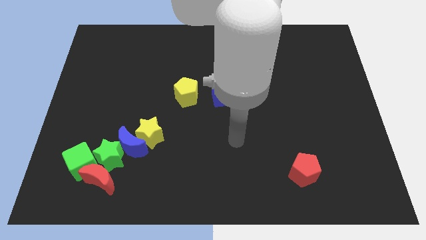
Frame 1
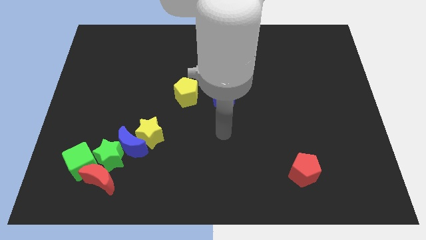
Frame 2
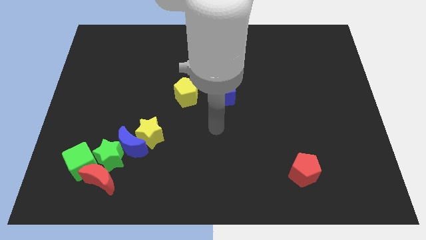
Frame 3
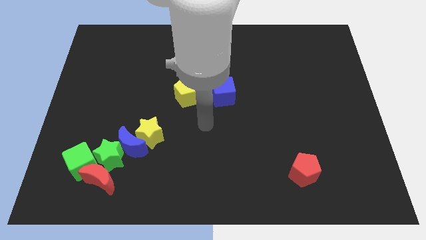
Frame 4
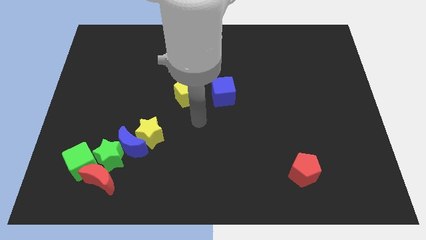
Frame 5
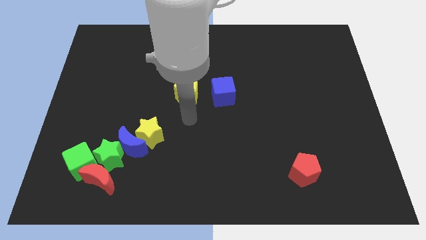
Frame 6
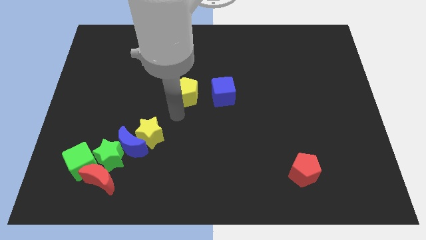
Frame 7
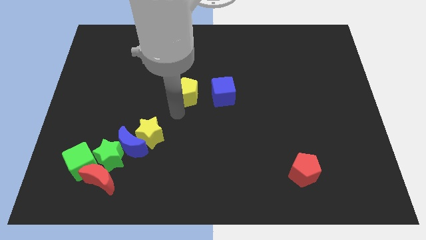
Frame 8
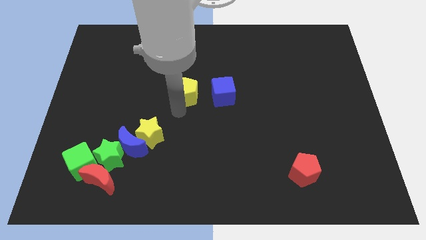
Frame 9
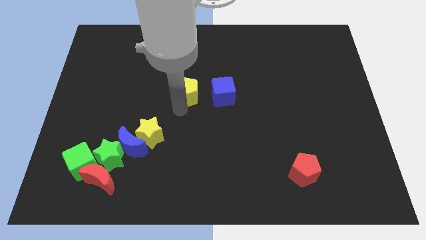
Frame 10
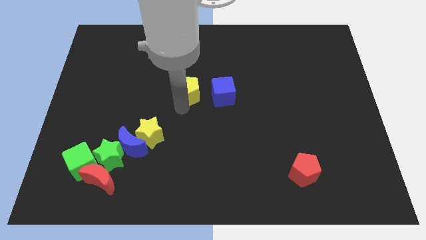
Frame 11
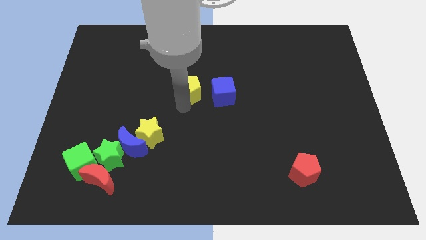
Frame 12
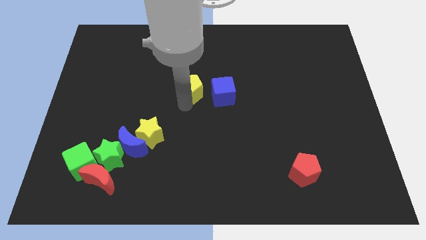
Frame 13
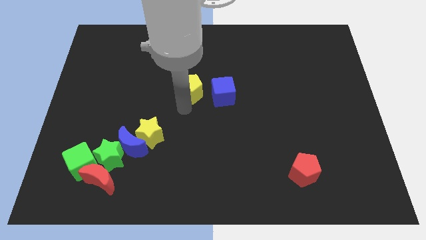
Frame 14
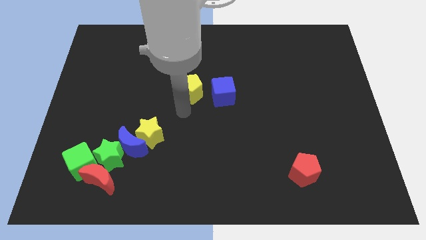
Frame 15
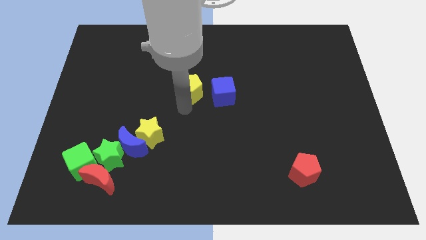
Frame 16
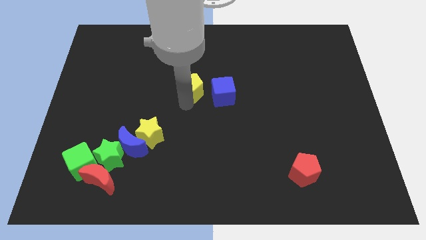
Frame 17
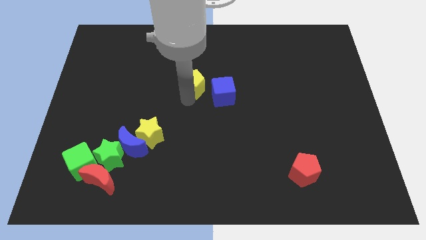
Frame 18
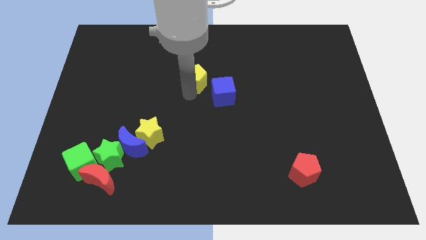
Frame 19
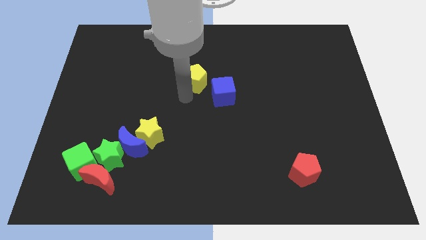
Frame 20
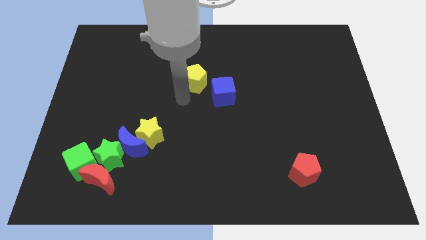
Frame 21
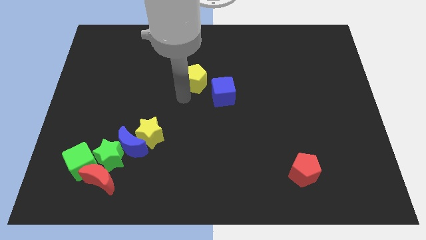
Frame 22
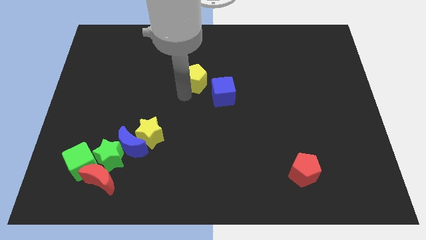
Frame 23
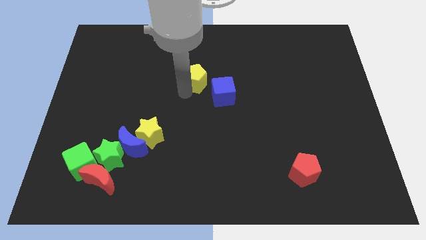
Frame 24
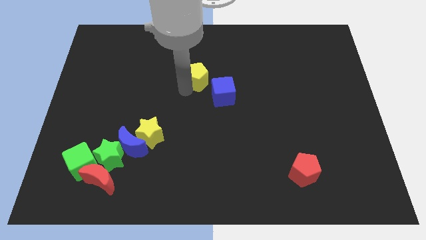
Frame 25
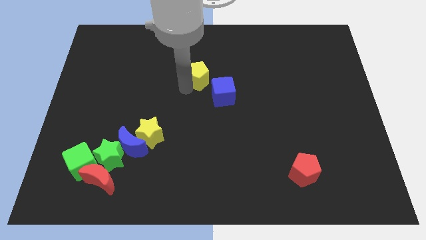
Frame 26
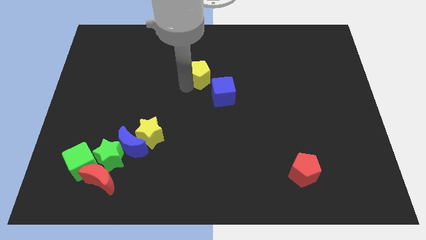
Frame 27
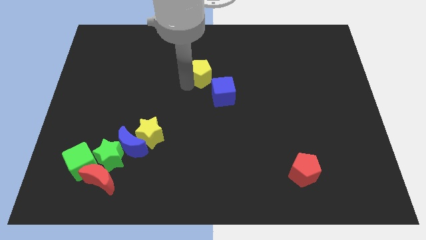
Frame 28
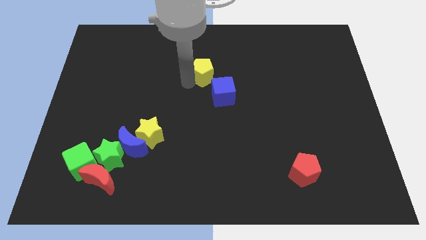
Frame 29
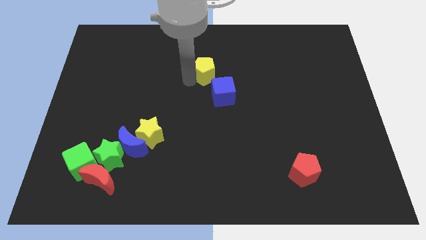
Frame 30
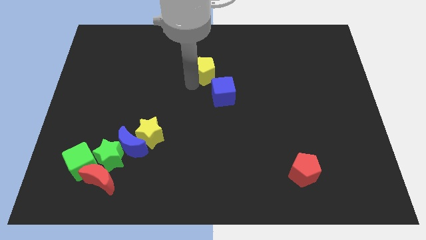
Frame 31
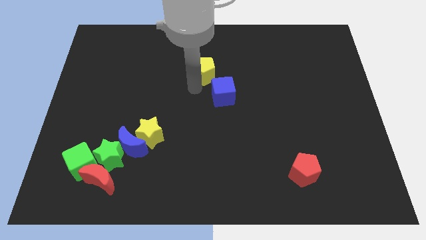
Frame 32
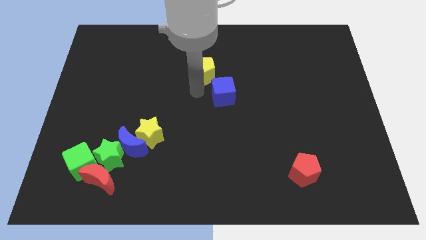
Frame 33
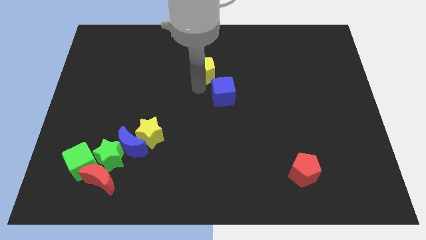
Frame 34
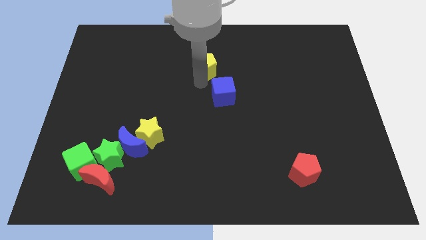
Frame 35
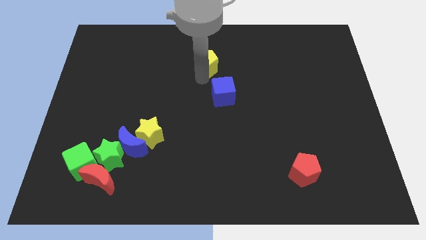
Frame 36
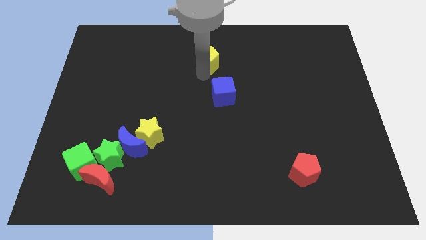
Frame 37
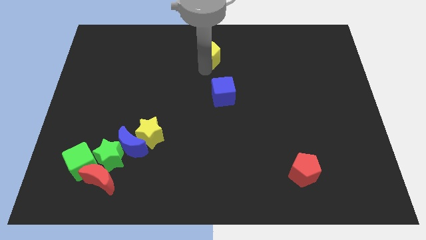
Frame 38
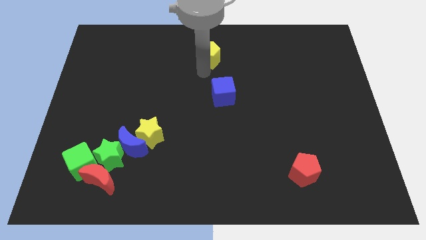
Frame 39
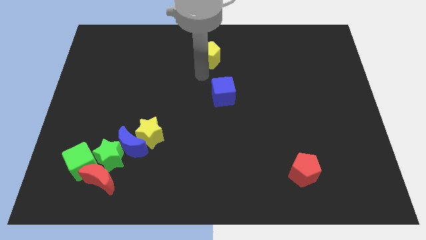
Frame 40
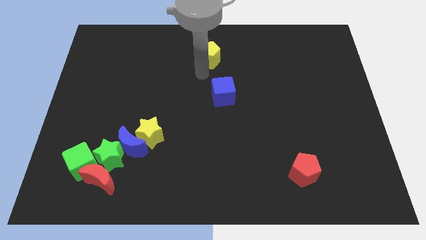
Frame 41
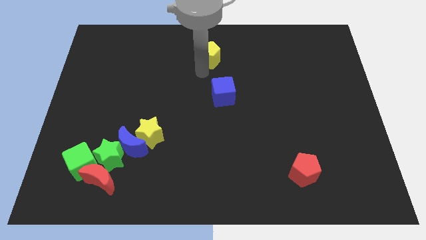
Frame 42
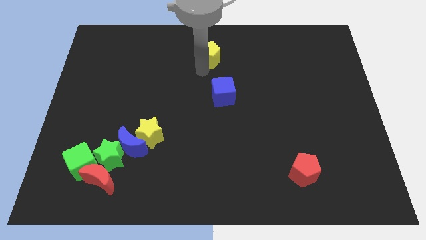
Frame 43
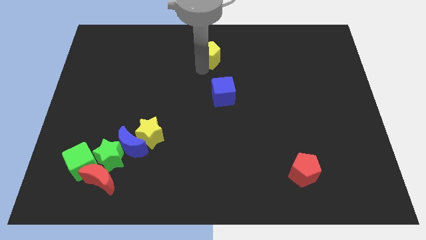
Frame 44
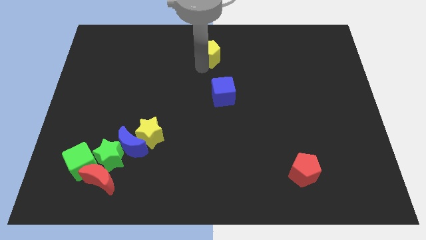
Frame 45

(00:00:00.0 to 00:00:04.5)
push the yellow pentagon to the towards your base

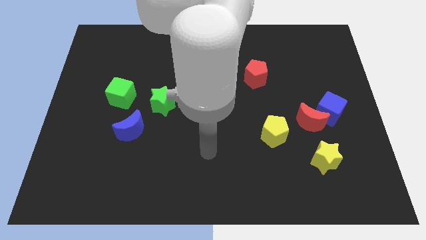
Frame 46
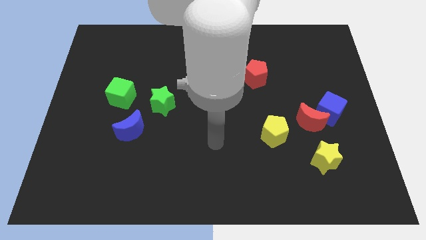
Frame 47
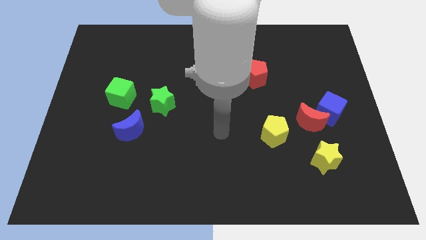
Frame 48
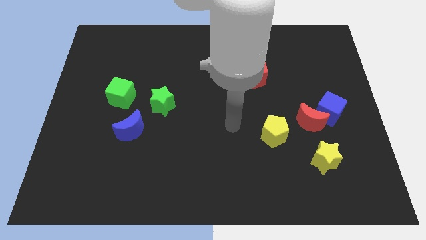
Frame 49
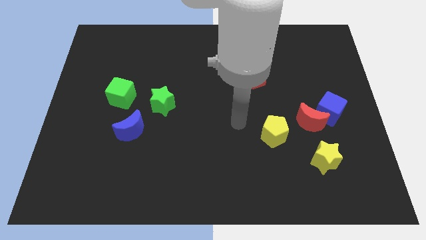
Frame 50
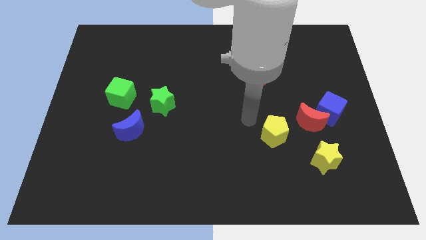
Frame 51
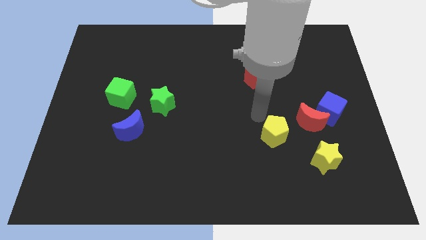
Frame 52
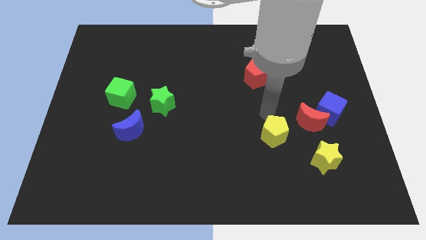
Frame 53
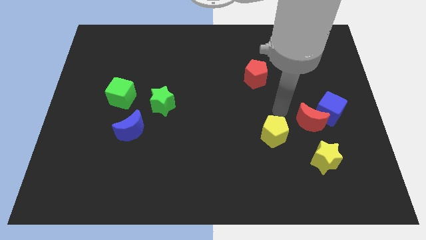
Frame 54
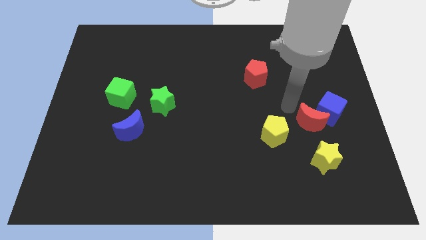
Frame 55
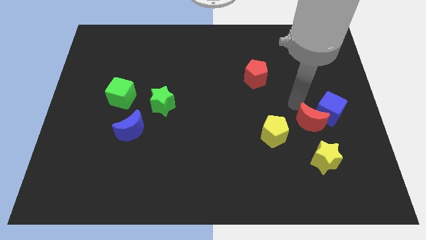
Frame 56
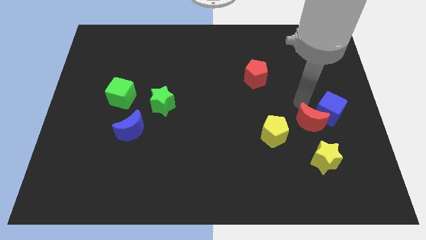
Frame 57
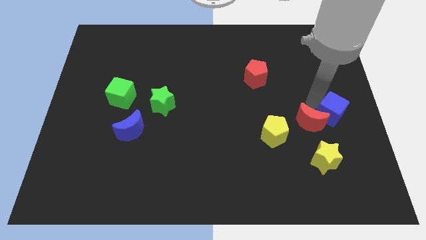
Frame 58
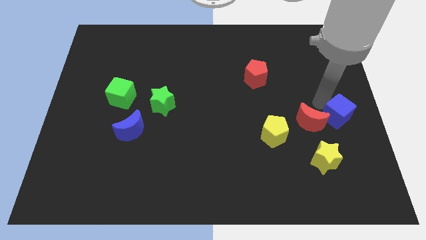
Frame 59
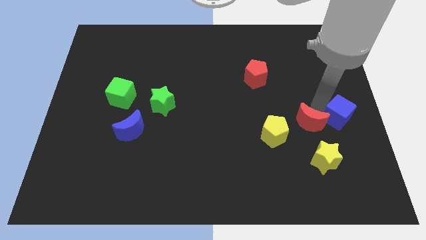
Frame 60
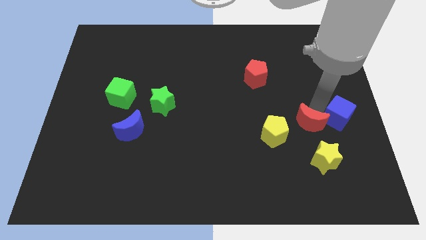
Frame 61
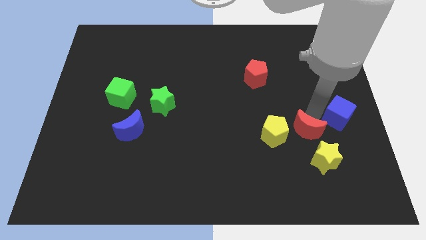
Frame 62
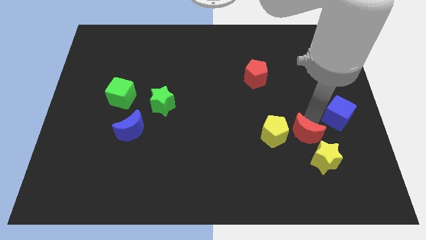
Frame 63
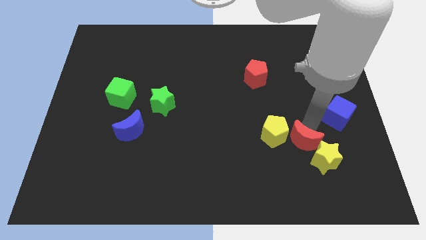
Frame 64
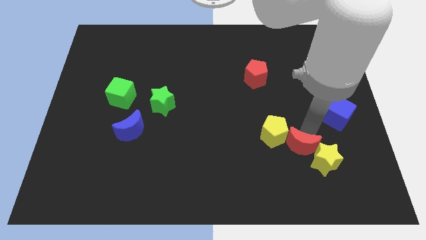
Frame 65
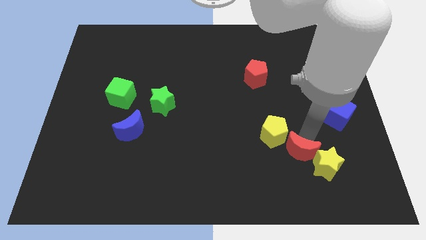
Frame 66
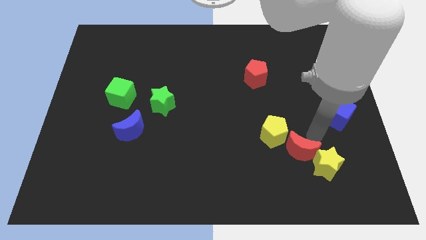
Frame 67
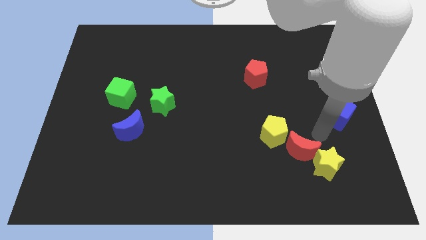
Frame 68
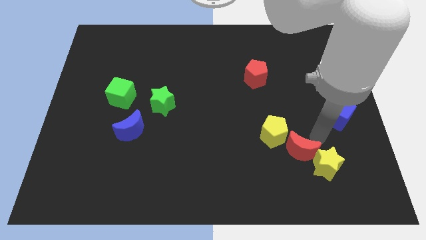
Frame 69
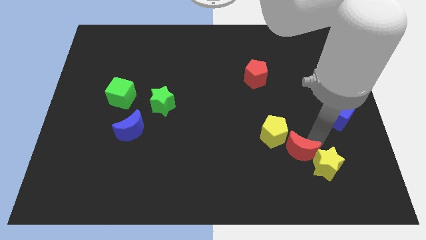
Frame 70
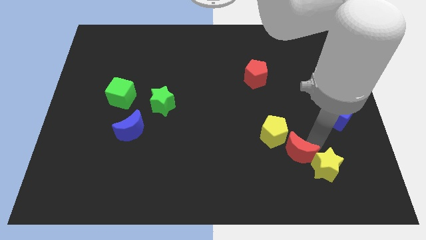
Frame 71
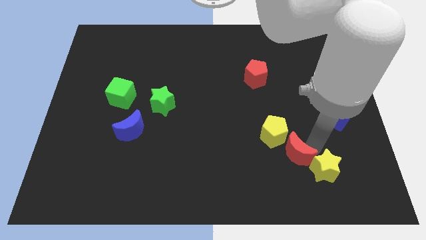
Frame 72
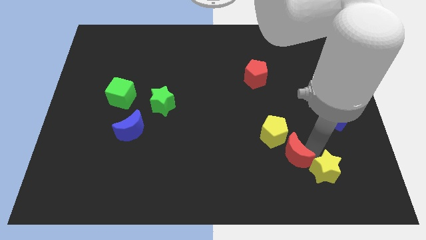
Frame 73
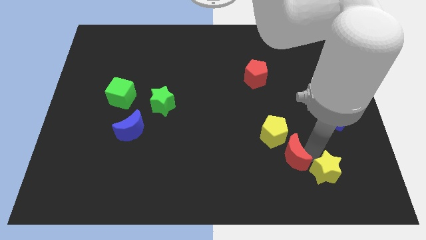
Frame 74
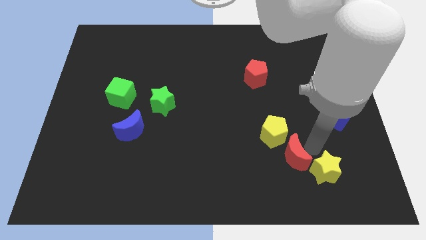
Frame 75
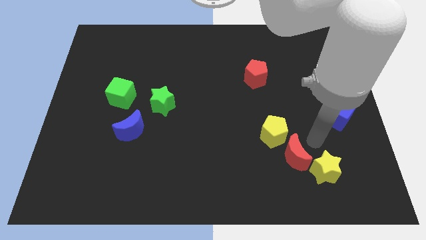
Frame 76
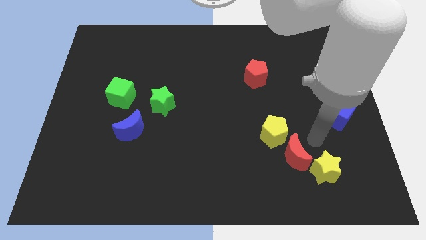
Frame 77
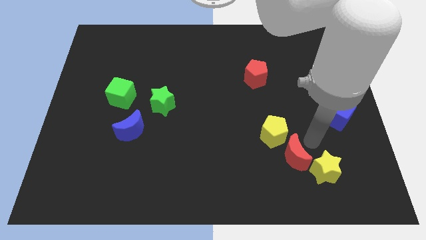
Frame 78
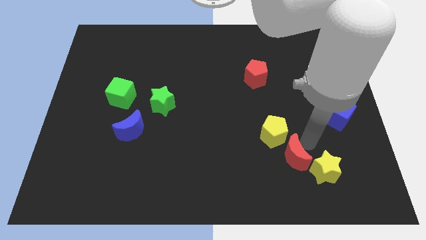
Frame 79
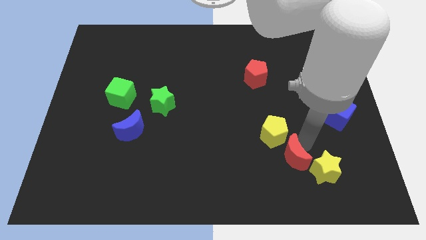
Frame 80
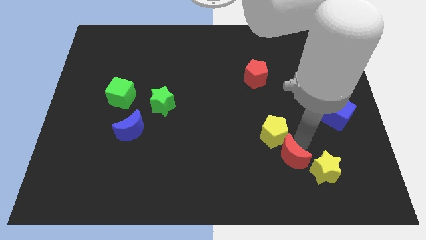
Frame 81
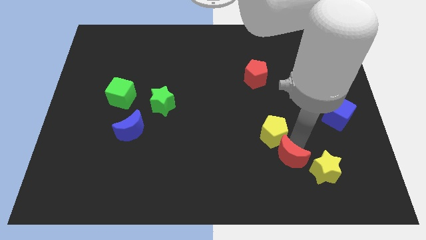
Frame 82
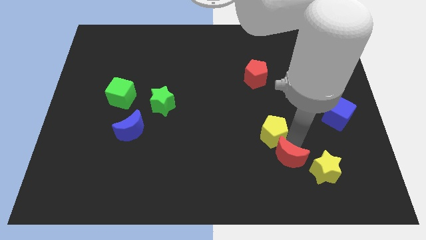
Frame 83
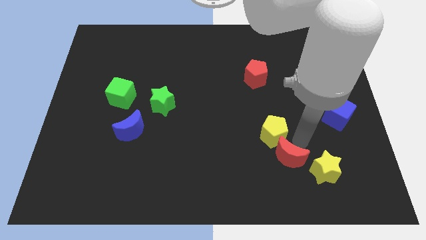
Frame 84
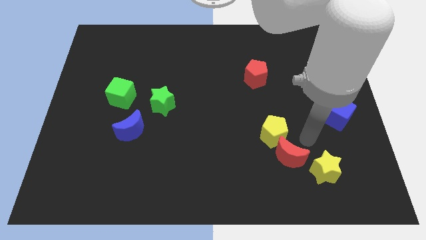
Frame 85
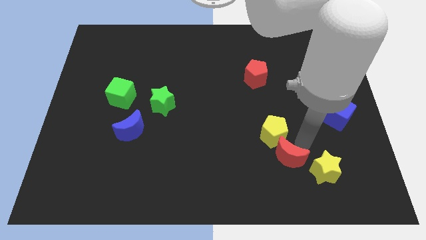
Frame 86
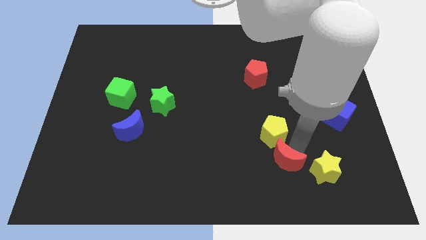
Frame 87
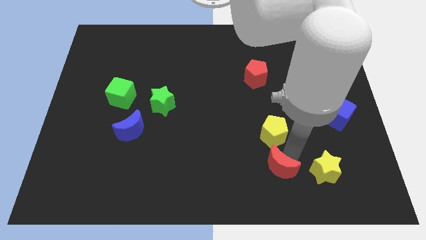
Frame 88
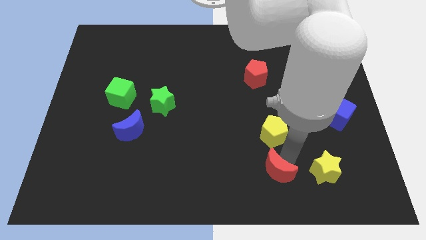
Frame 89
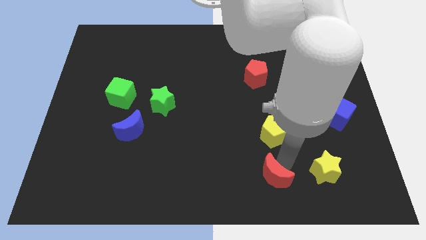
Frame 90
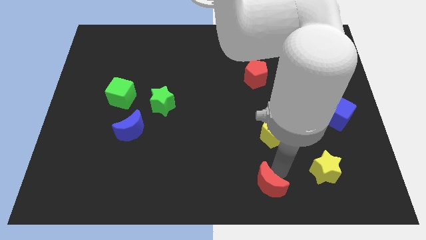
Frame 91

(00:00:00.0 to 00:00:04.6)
push the red moon to the bottom
